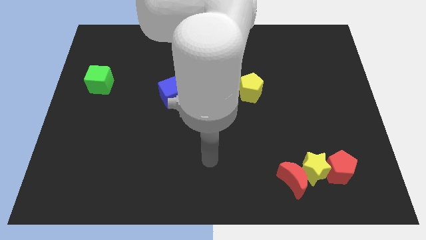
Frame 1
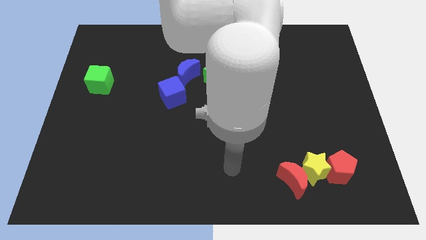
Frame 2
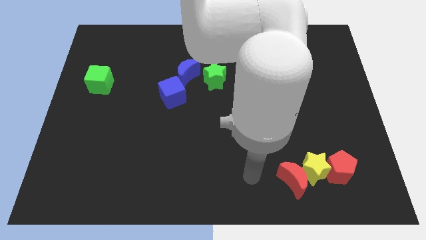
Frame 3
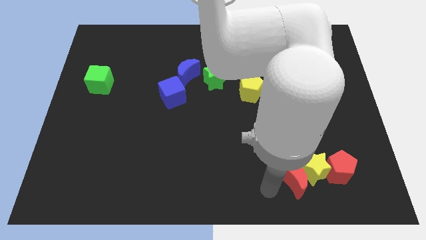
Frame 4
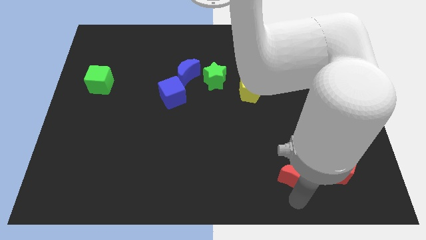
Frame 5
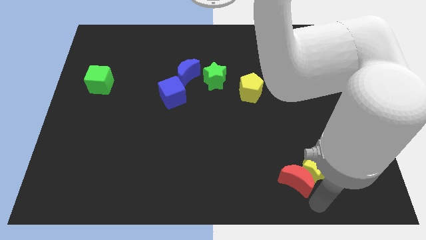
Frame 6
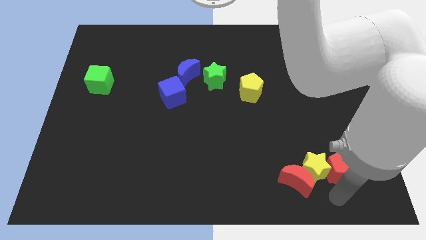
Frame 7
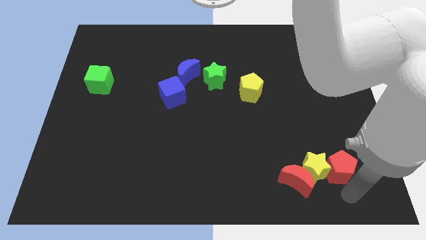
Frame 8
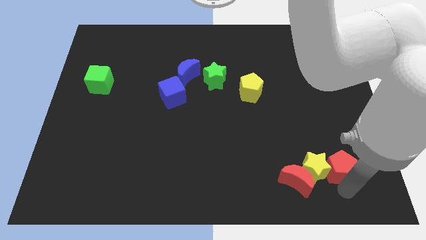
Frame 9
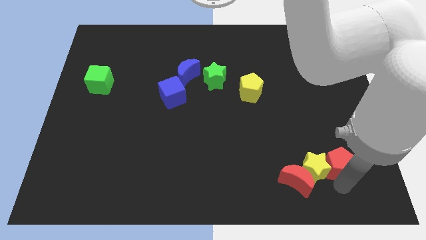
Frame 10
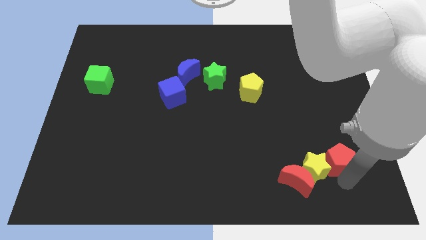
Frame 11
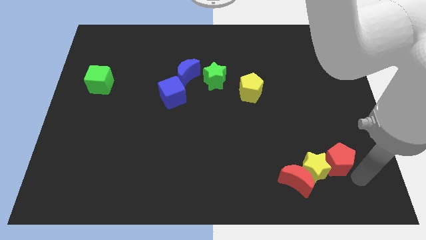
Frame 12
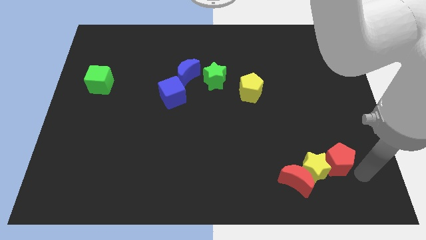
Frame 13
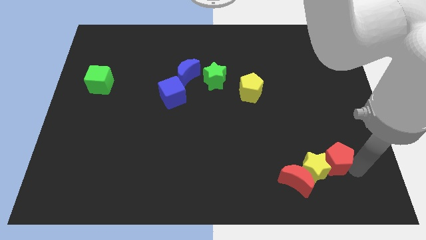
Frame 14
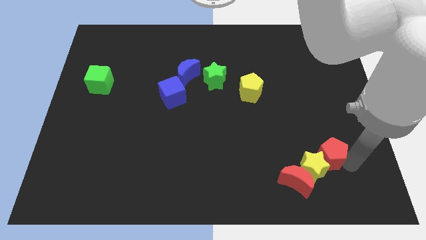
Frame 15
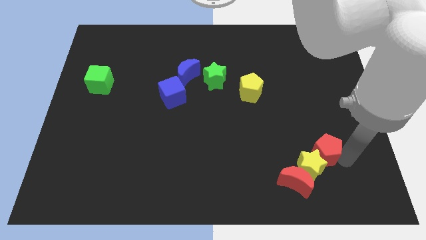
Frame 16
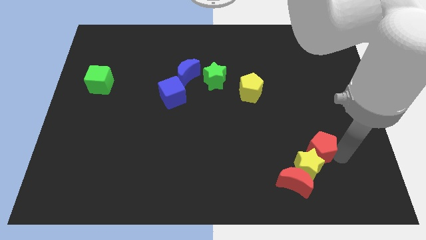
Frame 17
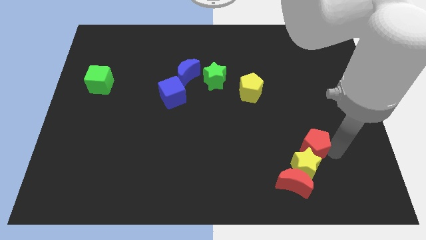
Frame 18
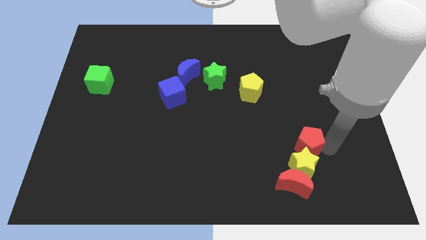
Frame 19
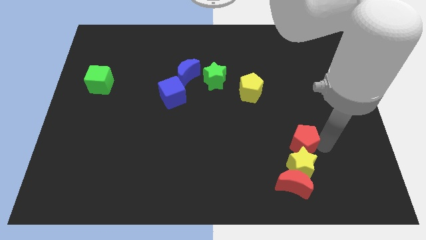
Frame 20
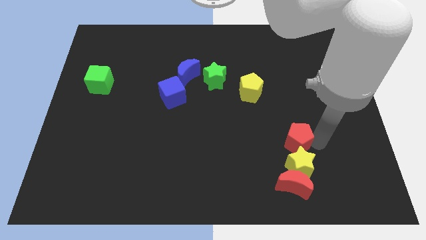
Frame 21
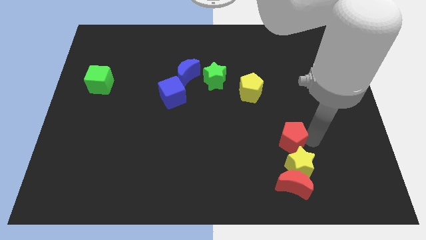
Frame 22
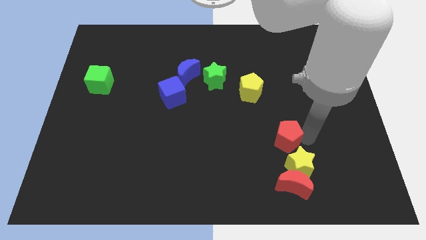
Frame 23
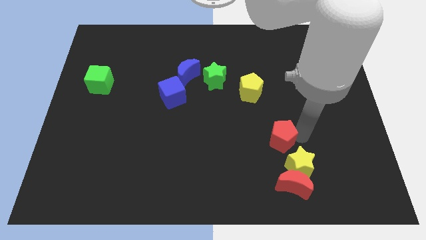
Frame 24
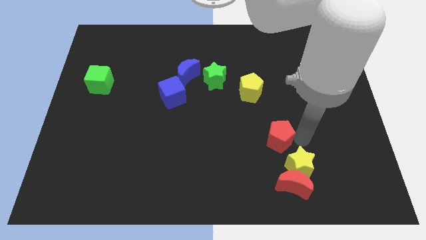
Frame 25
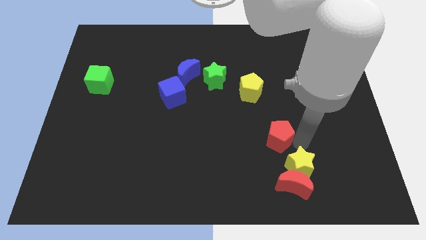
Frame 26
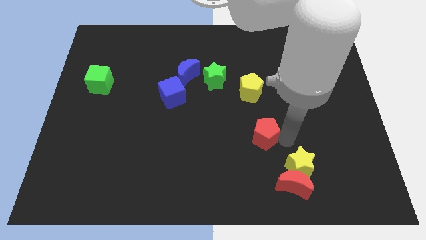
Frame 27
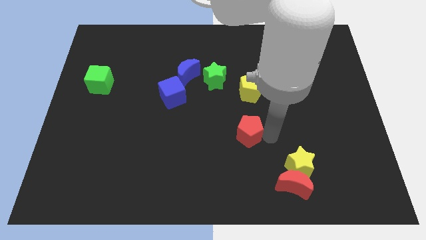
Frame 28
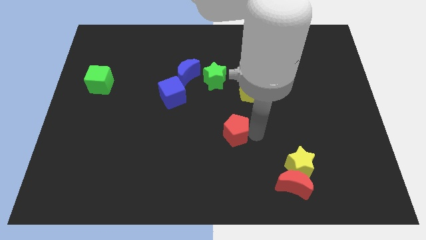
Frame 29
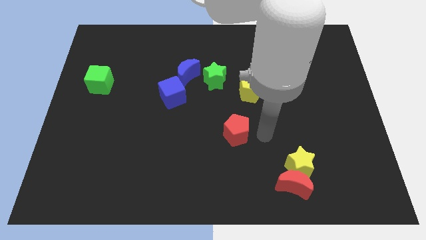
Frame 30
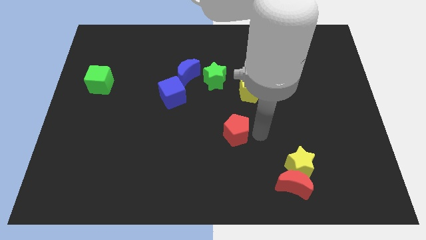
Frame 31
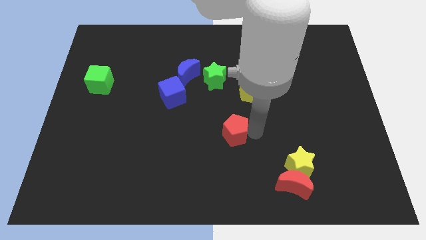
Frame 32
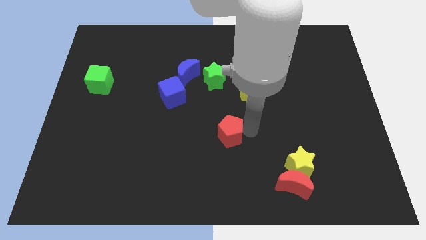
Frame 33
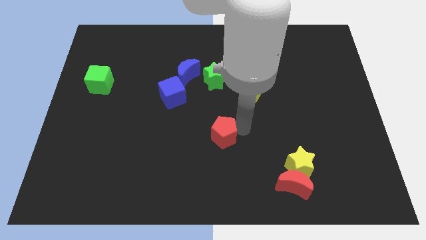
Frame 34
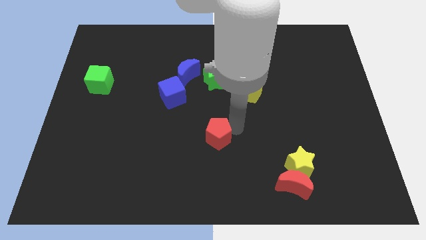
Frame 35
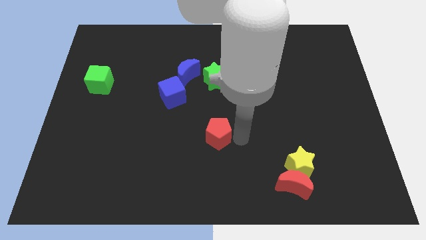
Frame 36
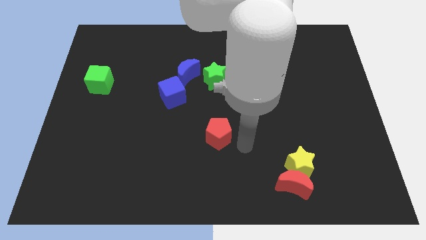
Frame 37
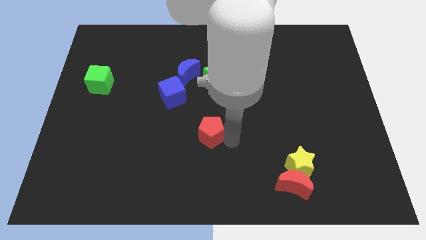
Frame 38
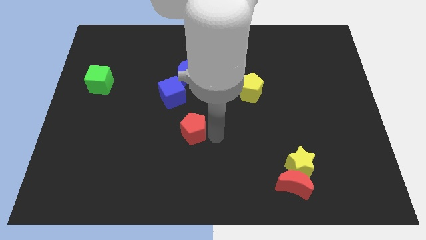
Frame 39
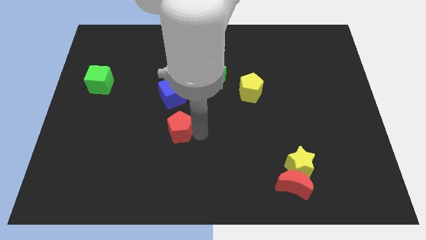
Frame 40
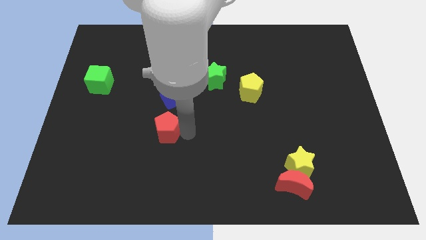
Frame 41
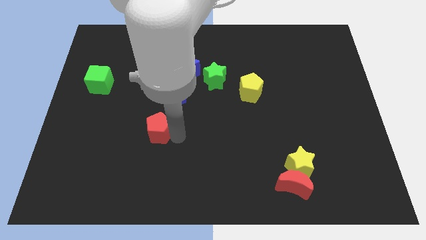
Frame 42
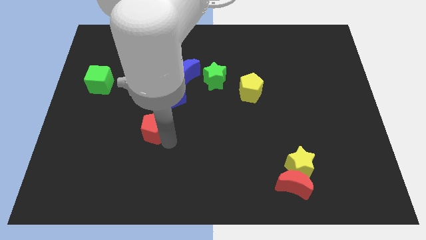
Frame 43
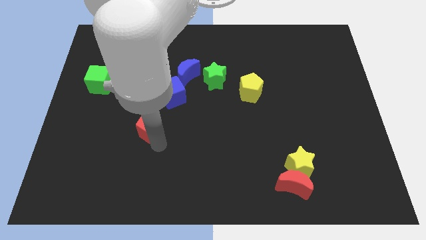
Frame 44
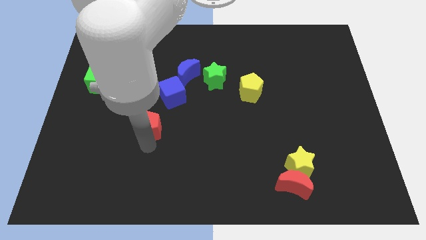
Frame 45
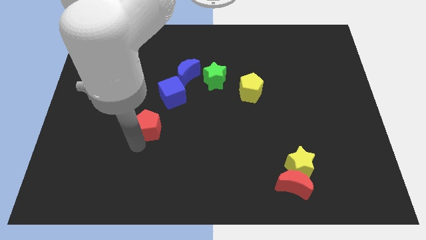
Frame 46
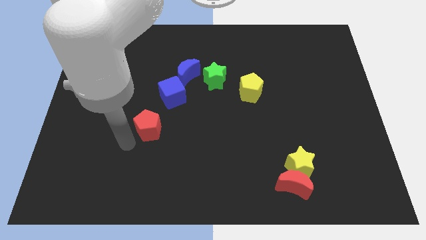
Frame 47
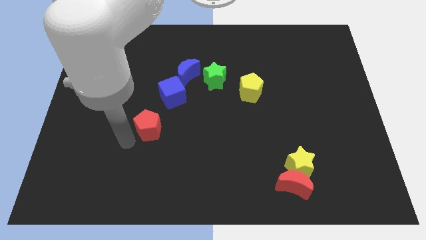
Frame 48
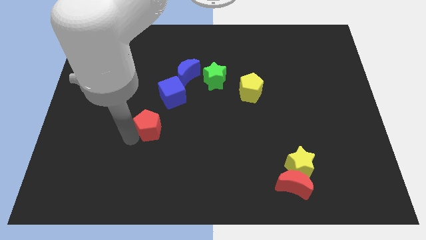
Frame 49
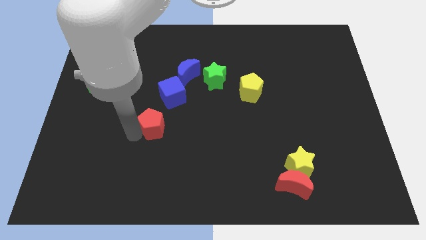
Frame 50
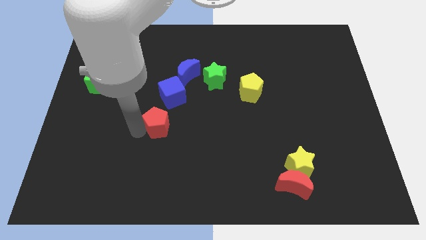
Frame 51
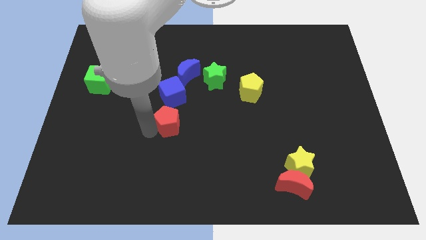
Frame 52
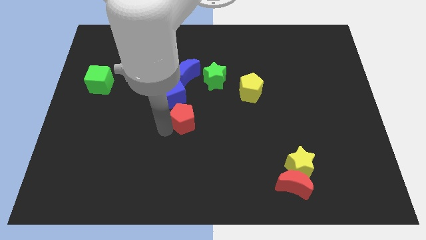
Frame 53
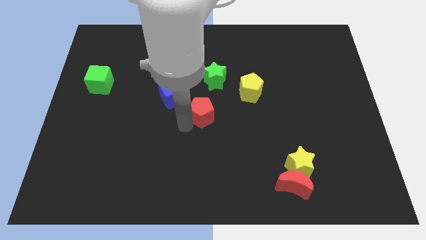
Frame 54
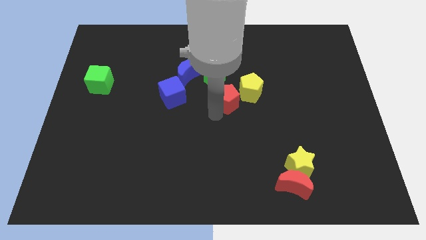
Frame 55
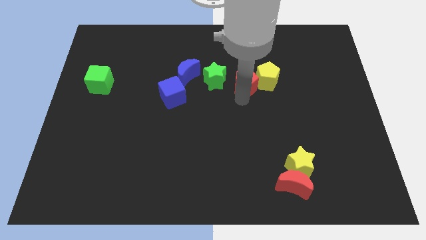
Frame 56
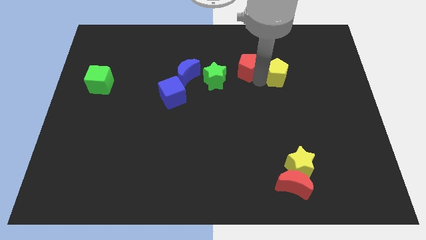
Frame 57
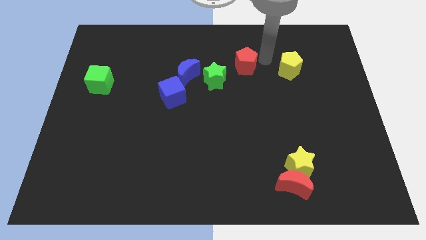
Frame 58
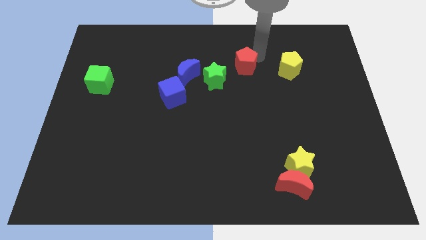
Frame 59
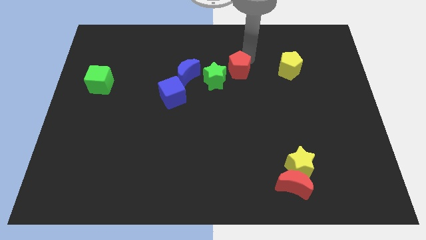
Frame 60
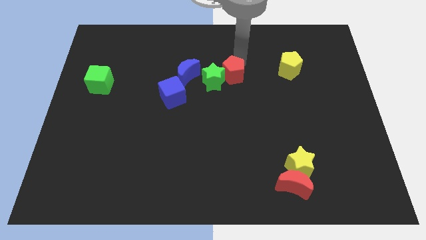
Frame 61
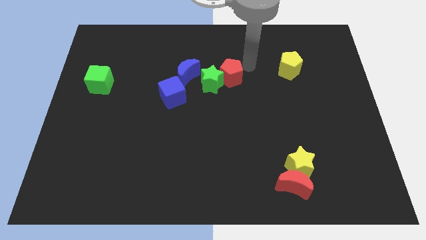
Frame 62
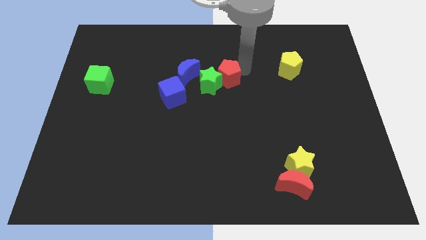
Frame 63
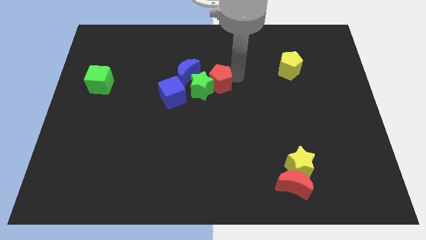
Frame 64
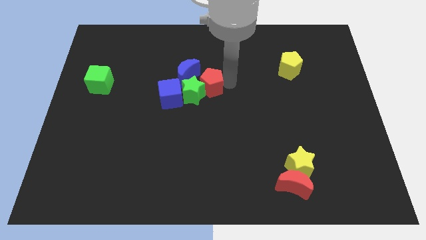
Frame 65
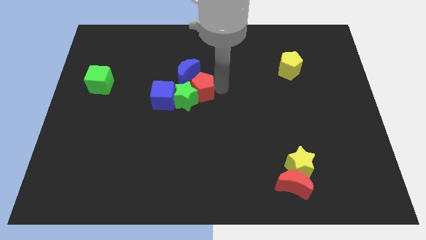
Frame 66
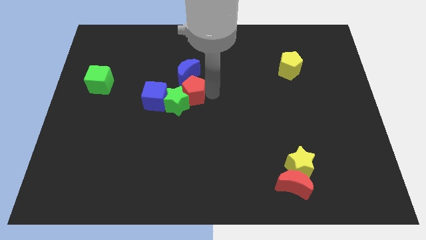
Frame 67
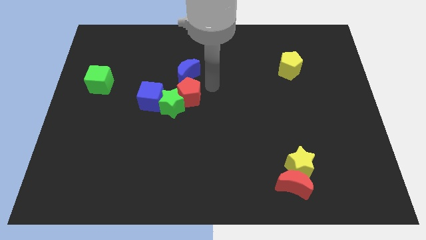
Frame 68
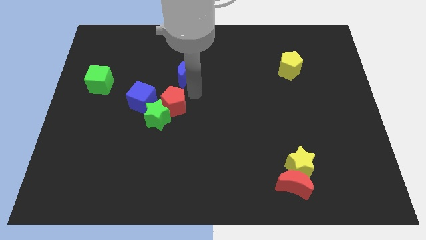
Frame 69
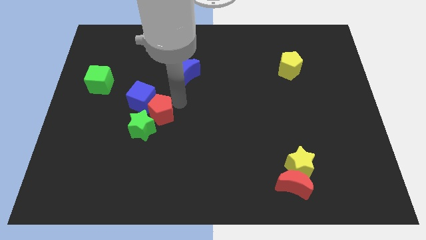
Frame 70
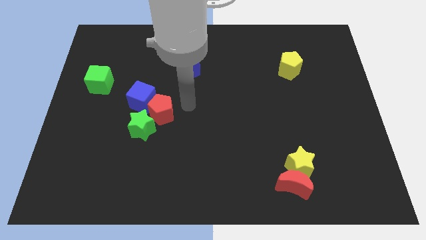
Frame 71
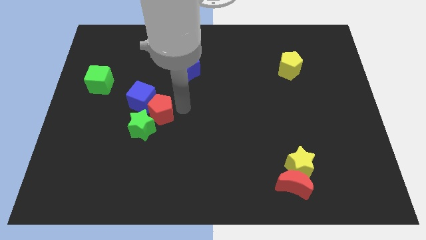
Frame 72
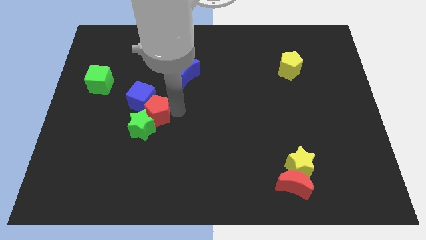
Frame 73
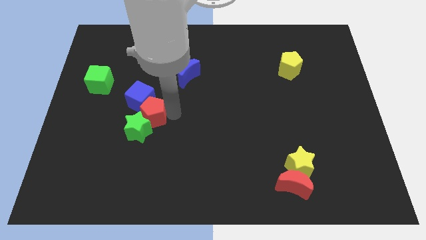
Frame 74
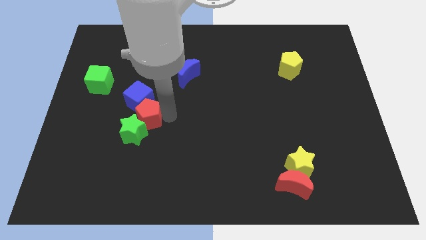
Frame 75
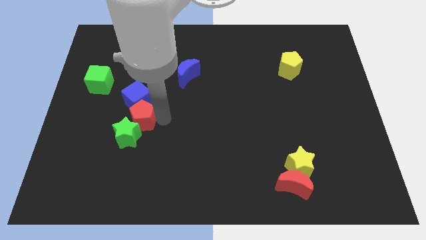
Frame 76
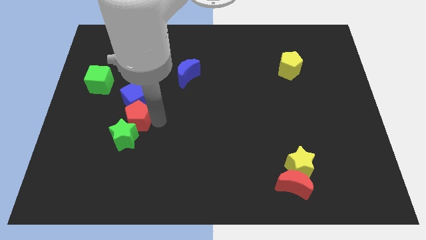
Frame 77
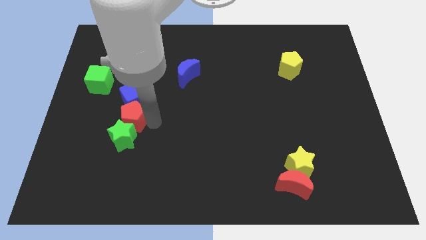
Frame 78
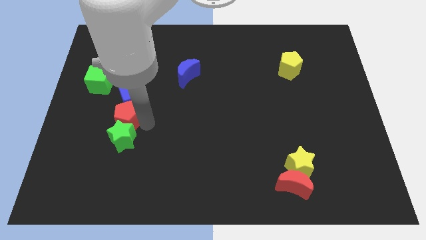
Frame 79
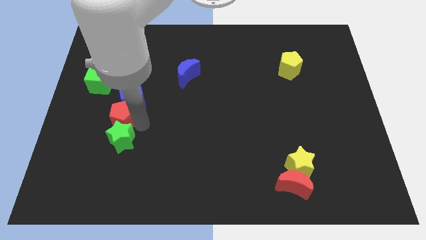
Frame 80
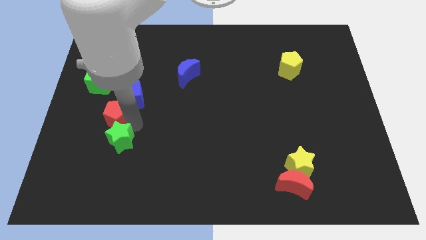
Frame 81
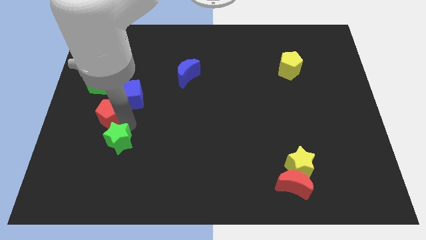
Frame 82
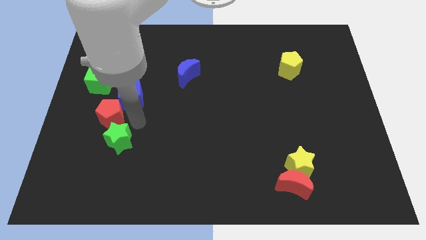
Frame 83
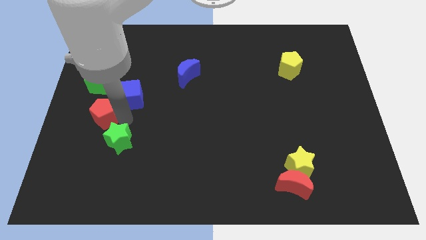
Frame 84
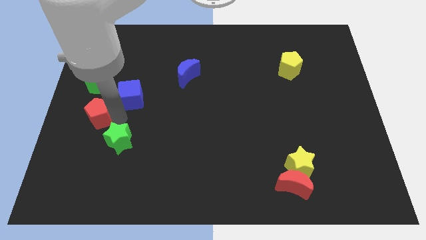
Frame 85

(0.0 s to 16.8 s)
push the red pentagon to the center left
